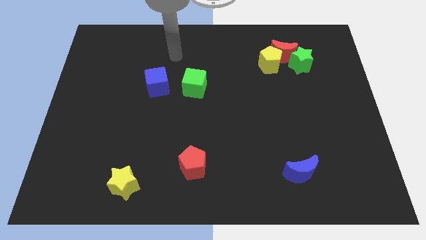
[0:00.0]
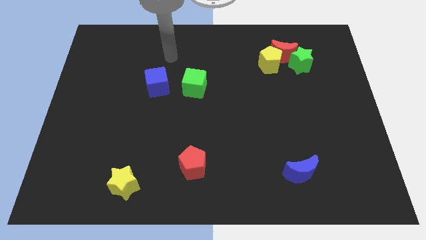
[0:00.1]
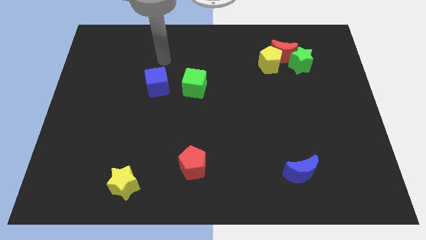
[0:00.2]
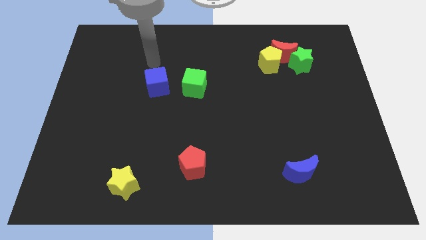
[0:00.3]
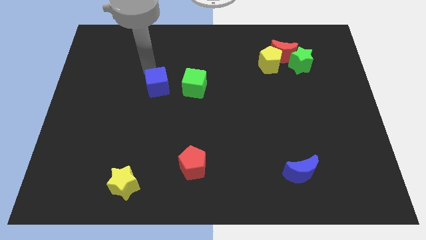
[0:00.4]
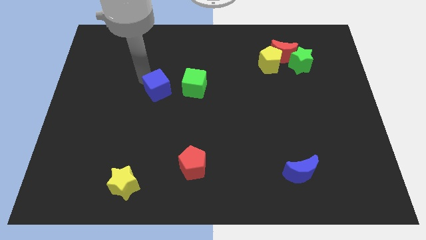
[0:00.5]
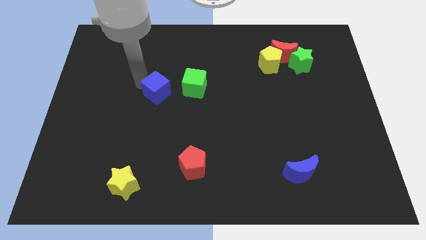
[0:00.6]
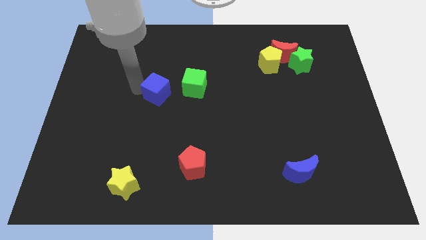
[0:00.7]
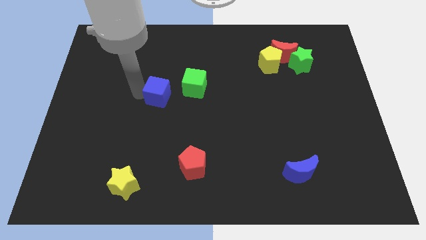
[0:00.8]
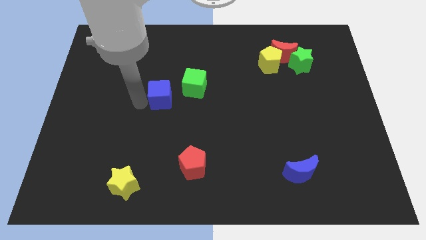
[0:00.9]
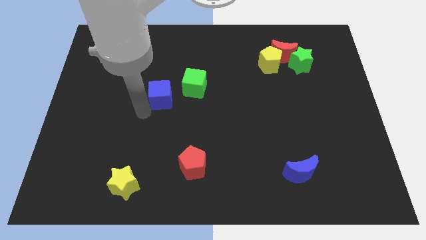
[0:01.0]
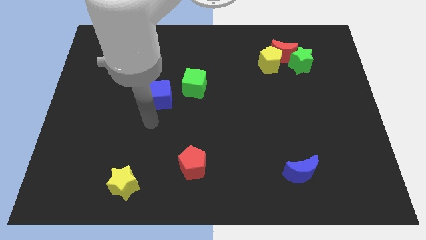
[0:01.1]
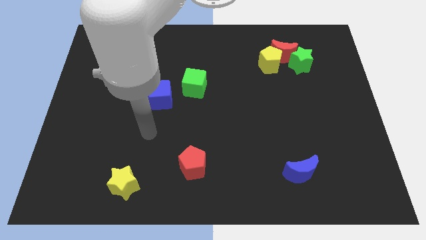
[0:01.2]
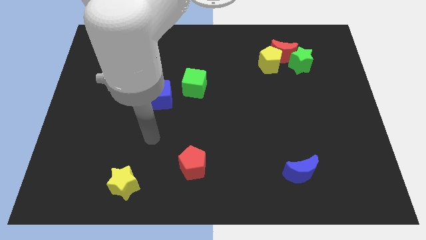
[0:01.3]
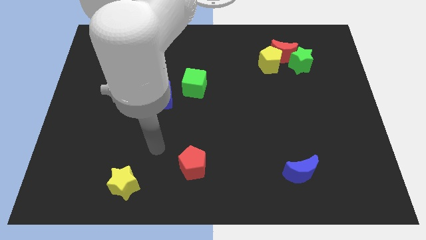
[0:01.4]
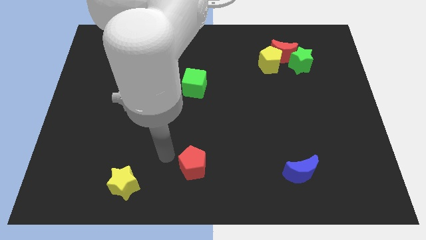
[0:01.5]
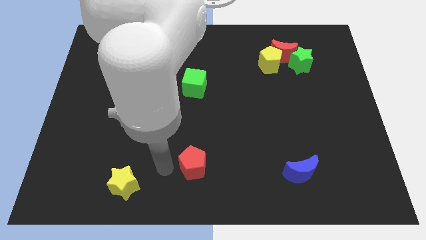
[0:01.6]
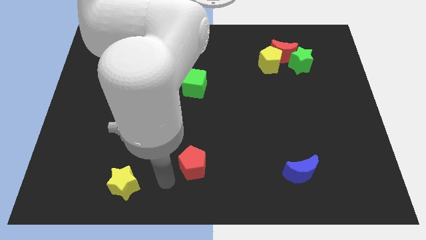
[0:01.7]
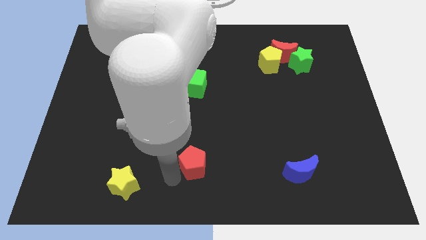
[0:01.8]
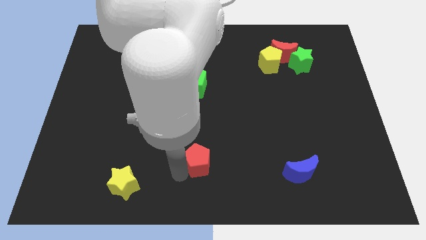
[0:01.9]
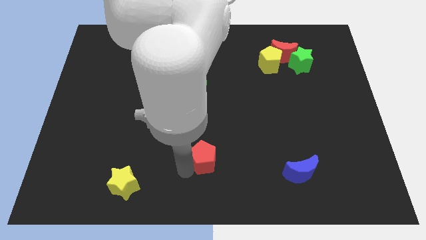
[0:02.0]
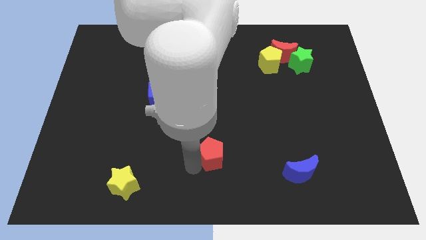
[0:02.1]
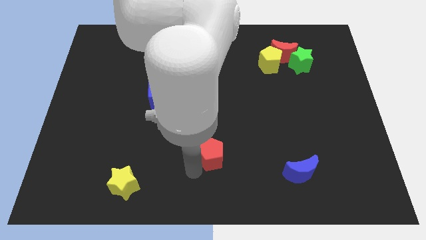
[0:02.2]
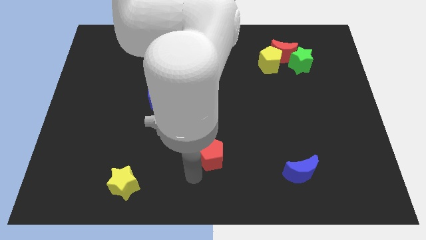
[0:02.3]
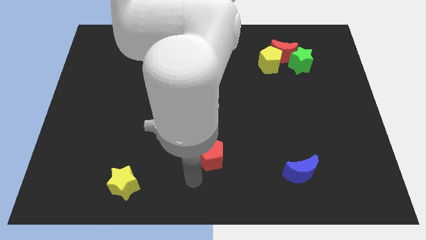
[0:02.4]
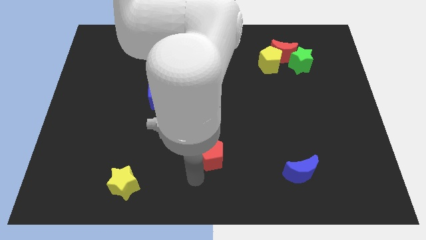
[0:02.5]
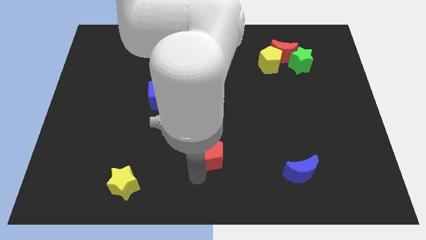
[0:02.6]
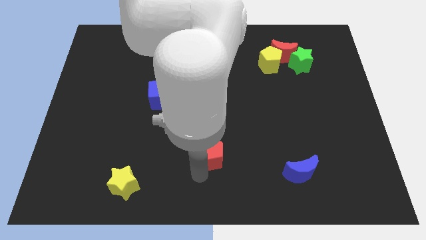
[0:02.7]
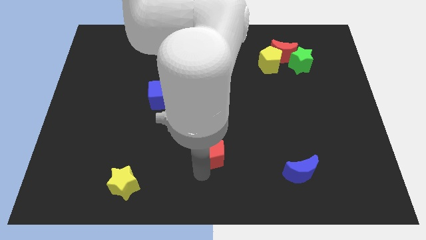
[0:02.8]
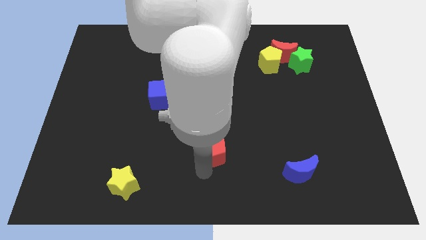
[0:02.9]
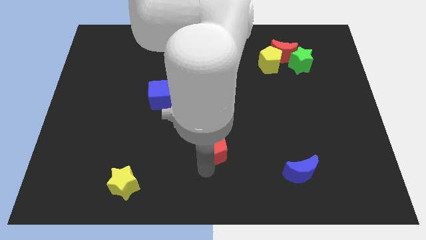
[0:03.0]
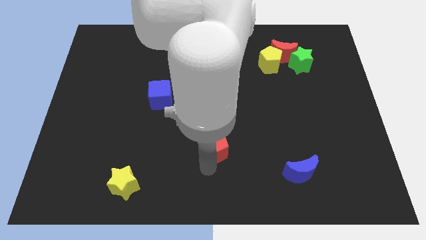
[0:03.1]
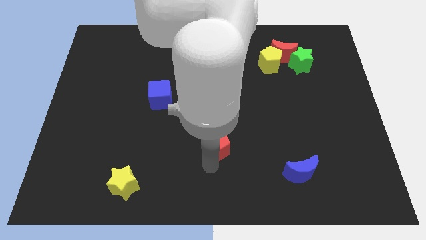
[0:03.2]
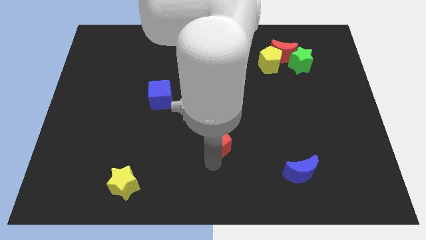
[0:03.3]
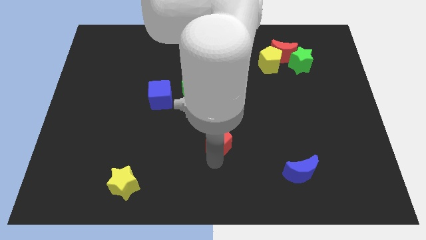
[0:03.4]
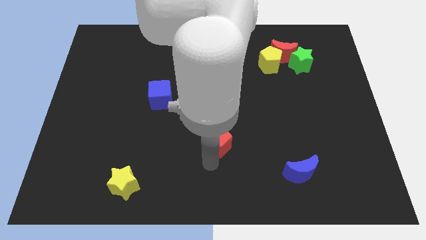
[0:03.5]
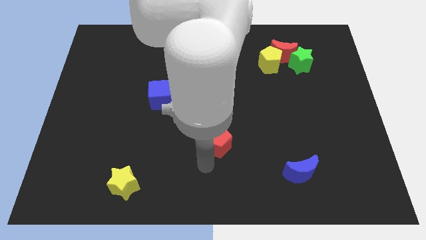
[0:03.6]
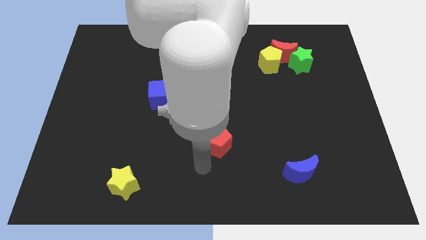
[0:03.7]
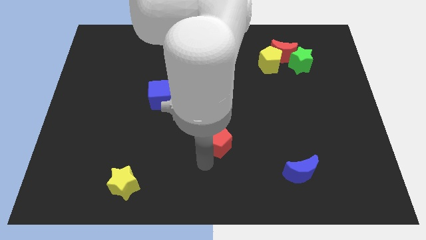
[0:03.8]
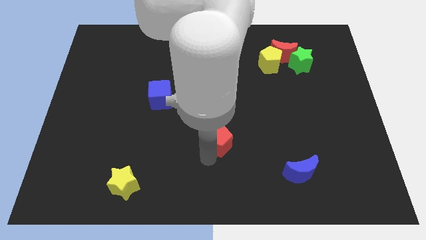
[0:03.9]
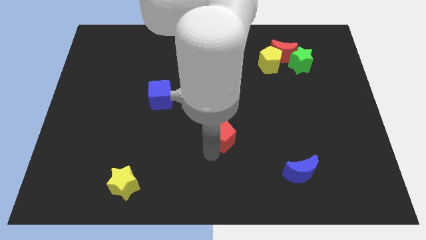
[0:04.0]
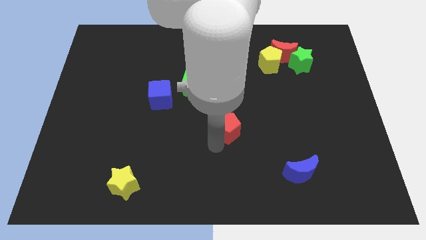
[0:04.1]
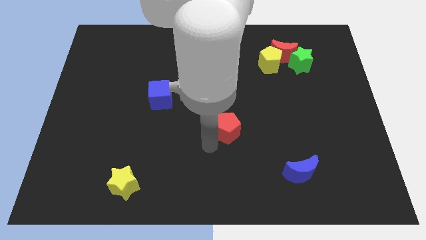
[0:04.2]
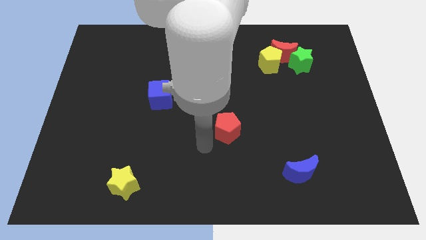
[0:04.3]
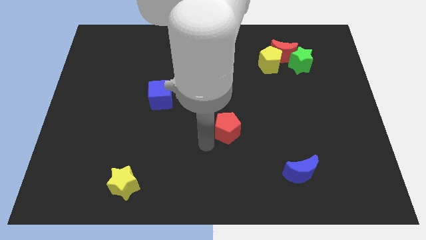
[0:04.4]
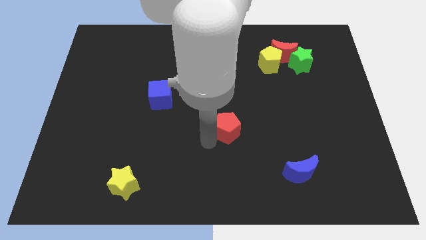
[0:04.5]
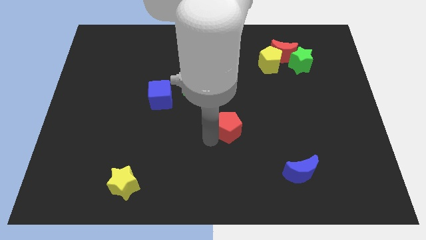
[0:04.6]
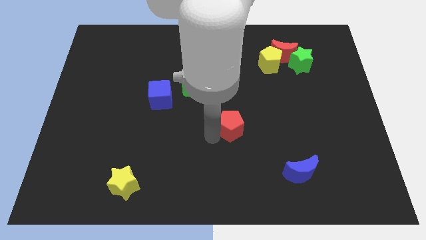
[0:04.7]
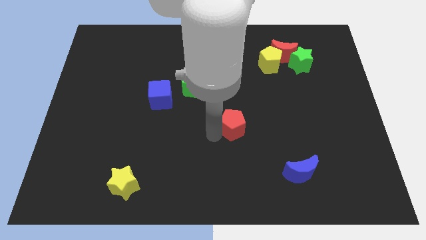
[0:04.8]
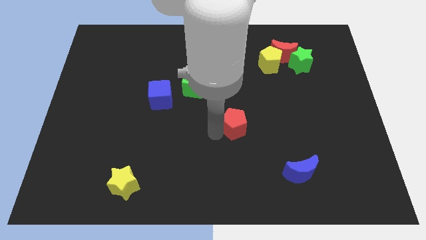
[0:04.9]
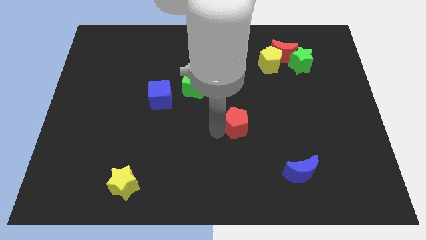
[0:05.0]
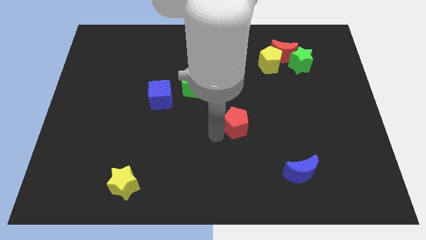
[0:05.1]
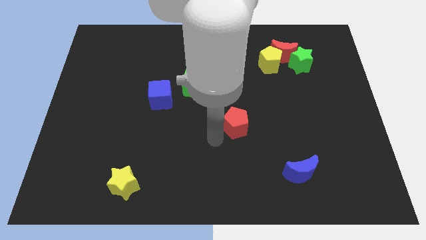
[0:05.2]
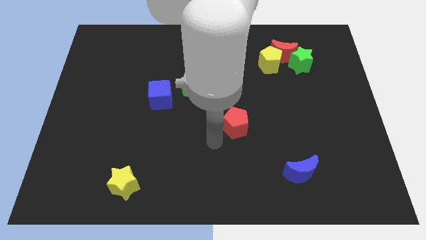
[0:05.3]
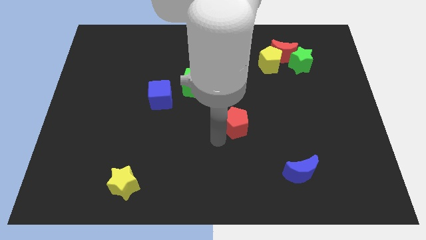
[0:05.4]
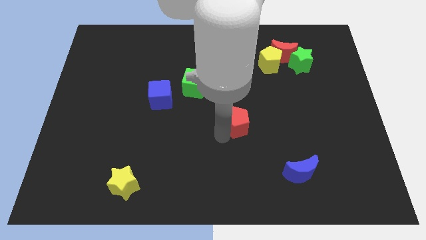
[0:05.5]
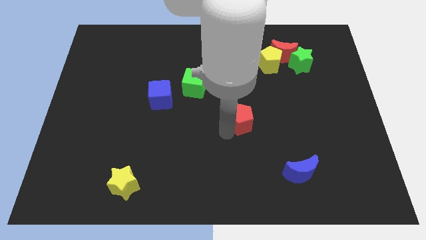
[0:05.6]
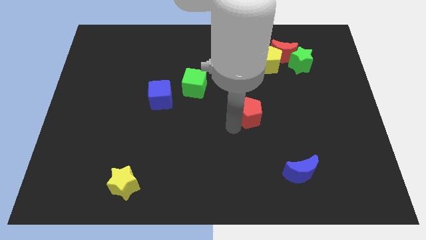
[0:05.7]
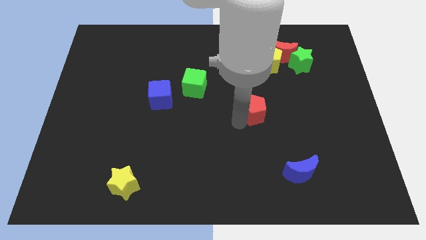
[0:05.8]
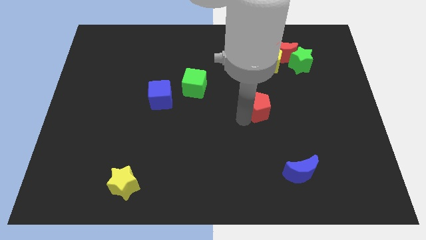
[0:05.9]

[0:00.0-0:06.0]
move the red pentagon diagonally up and right

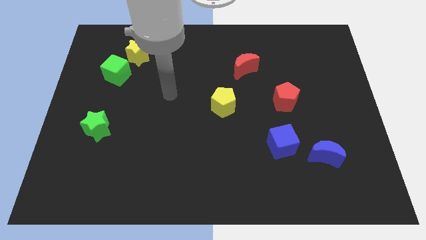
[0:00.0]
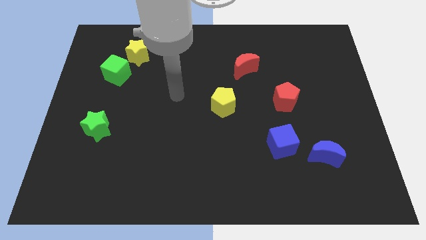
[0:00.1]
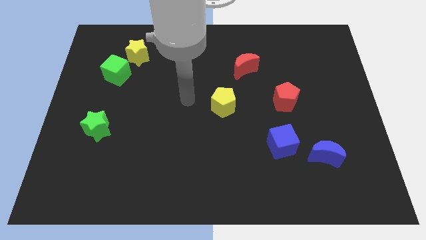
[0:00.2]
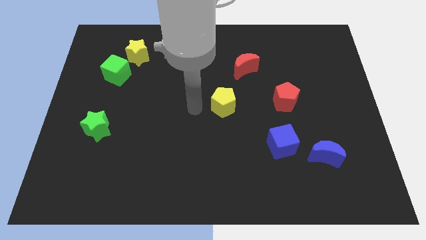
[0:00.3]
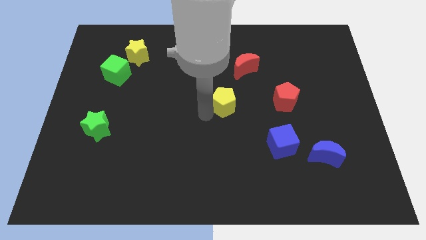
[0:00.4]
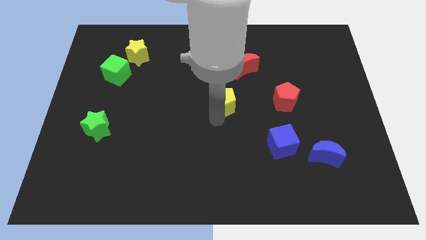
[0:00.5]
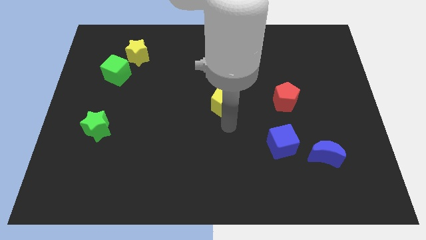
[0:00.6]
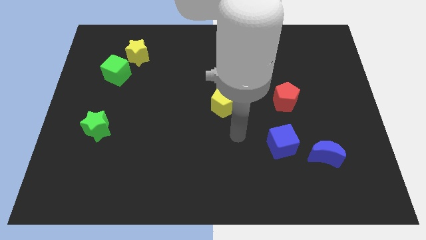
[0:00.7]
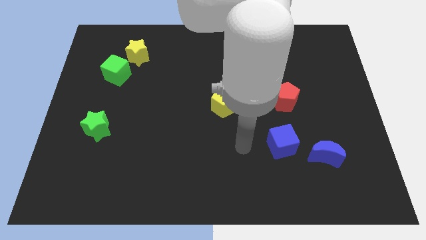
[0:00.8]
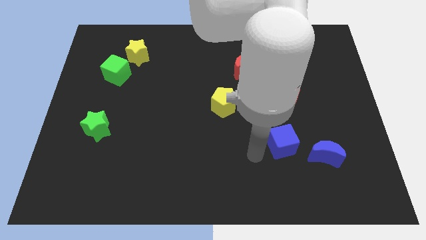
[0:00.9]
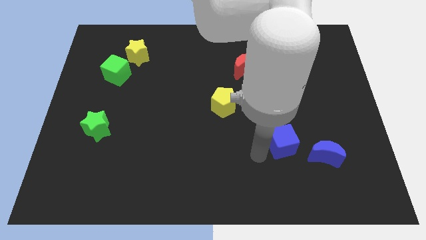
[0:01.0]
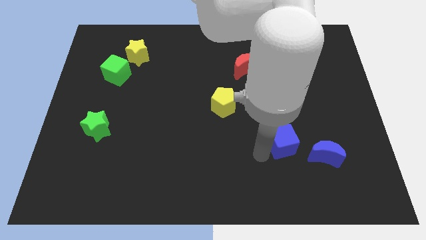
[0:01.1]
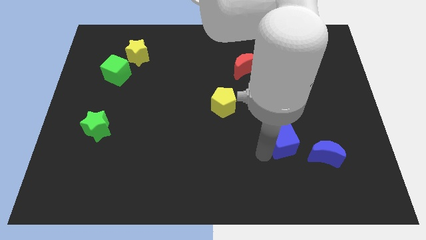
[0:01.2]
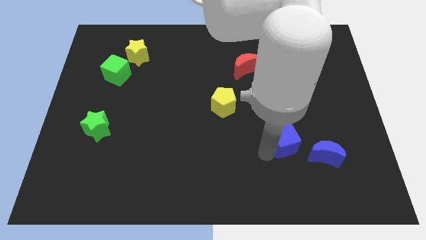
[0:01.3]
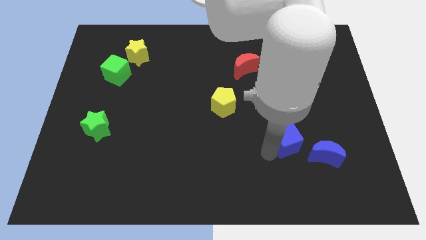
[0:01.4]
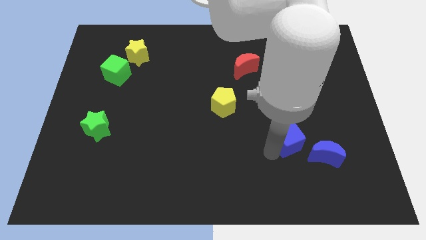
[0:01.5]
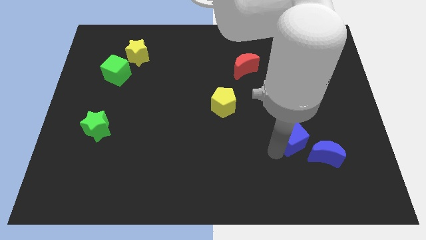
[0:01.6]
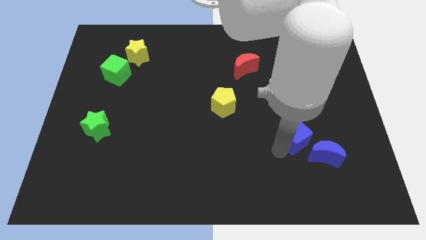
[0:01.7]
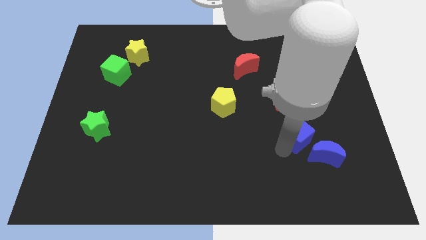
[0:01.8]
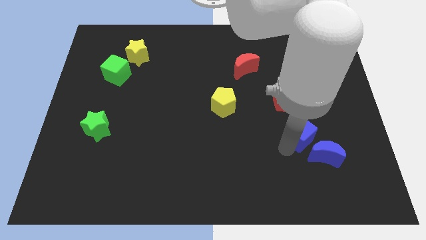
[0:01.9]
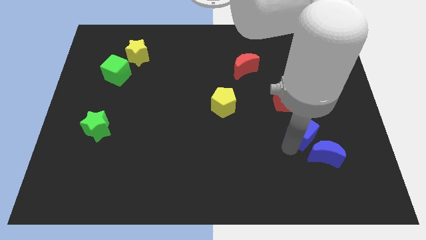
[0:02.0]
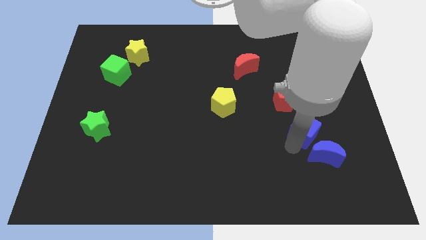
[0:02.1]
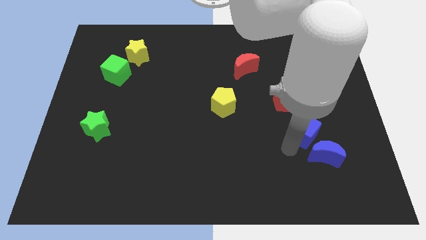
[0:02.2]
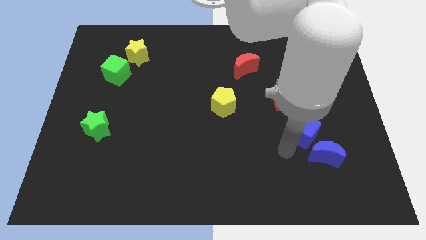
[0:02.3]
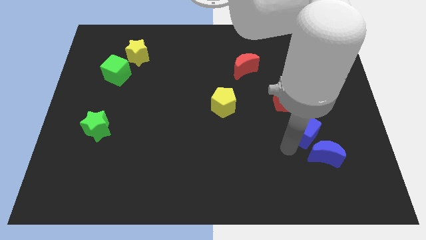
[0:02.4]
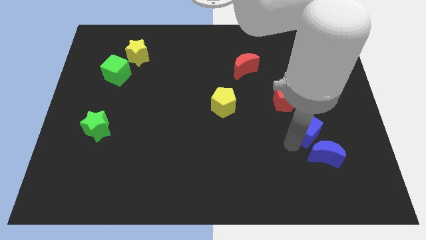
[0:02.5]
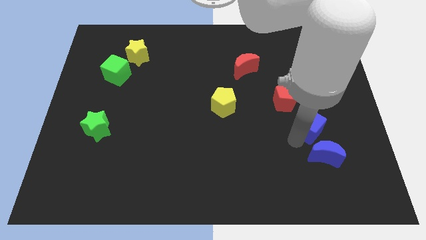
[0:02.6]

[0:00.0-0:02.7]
move the blue cube a bit upwards and right
